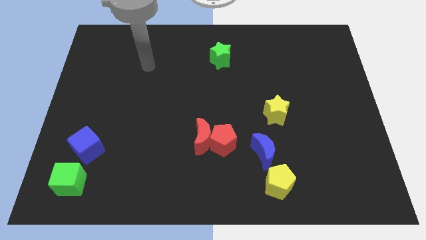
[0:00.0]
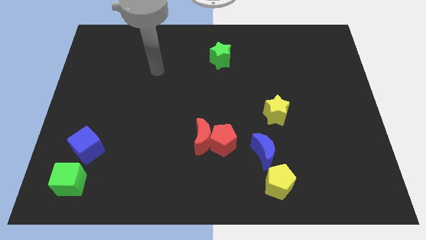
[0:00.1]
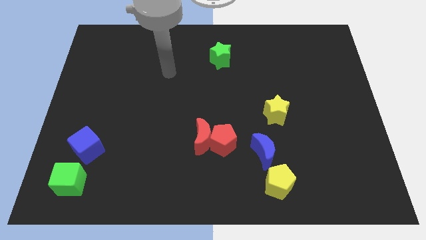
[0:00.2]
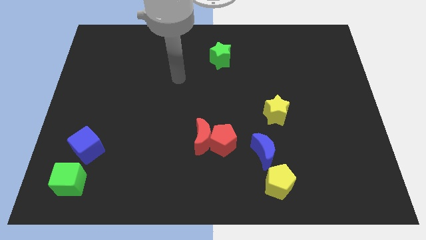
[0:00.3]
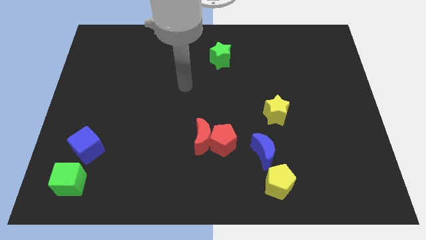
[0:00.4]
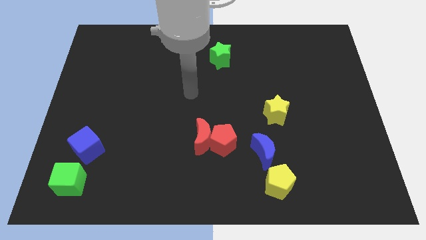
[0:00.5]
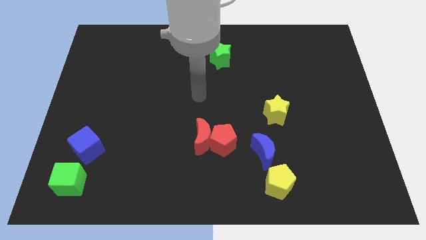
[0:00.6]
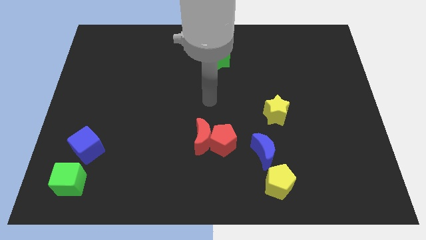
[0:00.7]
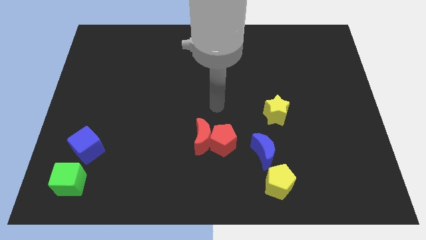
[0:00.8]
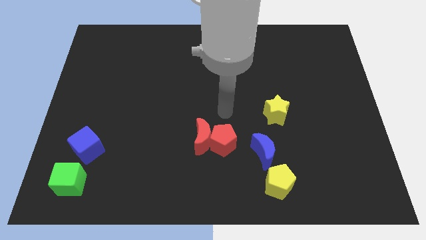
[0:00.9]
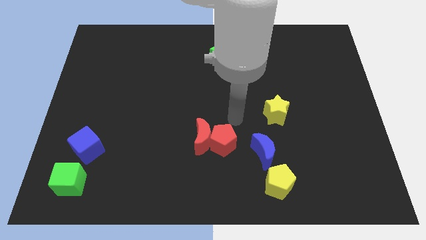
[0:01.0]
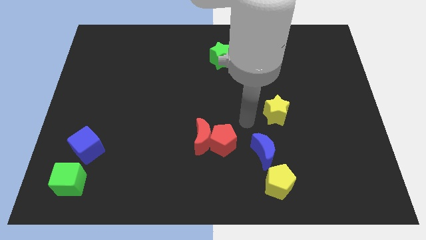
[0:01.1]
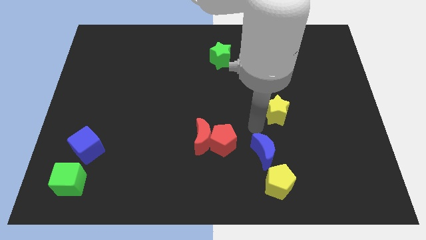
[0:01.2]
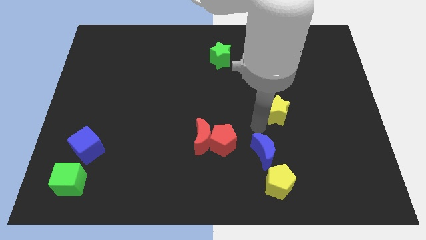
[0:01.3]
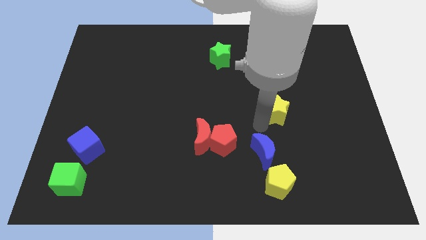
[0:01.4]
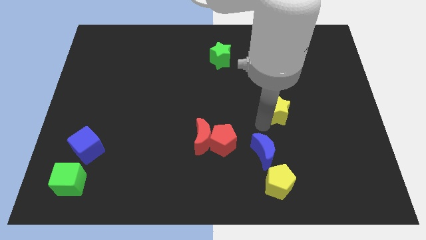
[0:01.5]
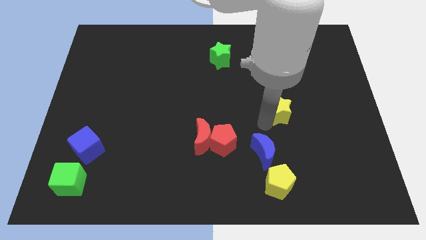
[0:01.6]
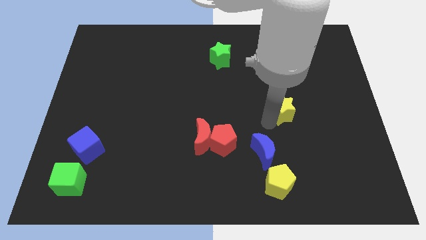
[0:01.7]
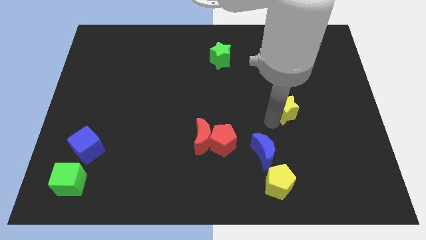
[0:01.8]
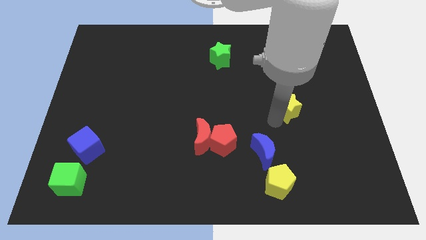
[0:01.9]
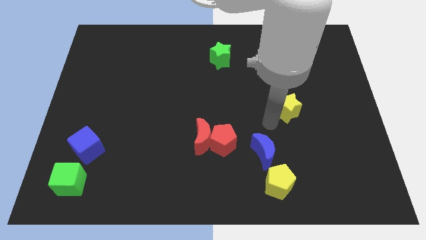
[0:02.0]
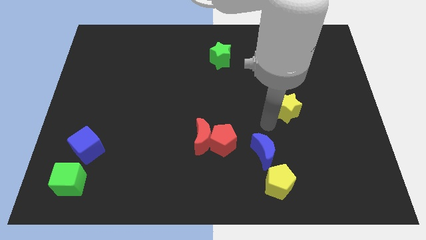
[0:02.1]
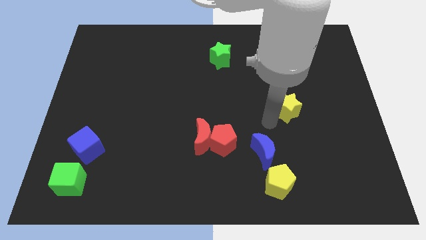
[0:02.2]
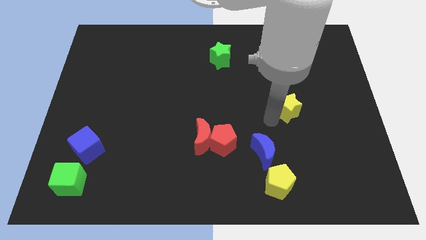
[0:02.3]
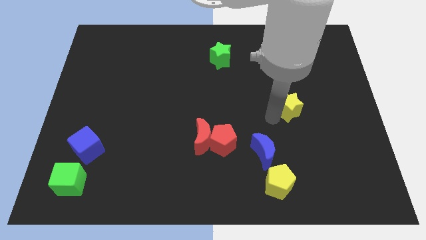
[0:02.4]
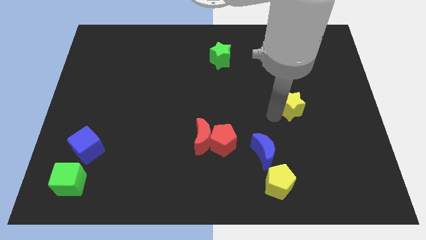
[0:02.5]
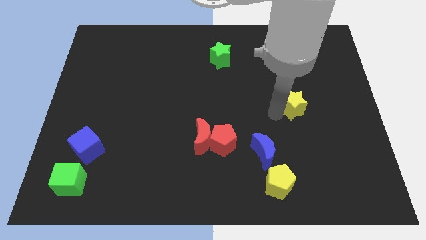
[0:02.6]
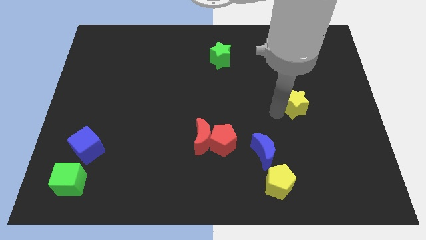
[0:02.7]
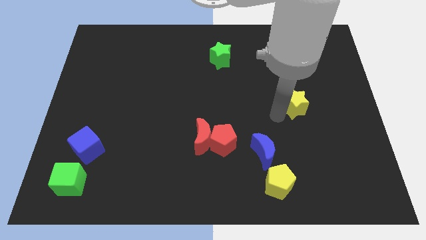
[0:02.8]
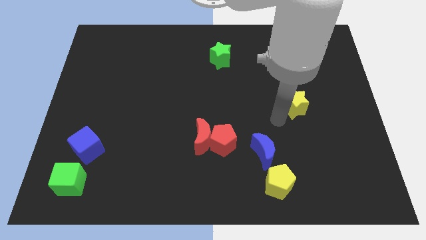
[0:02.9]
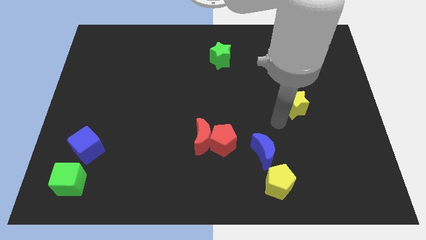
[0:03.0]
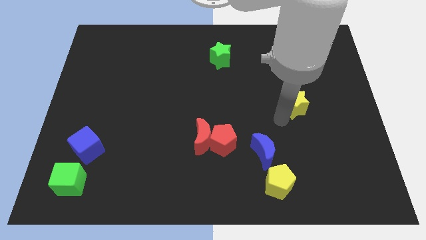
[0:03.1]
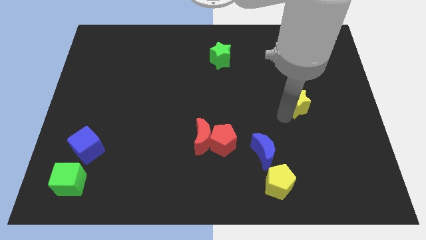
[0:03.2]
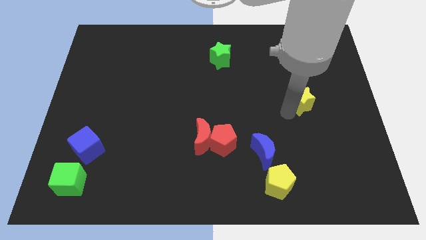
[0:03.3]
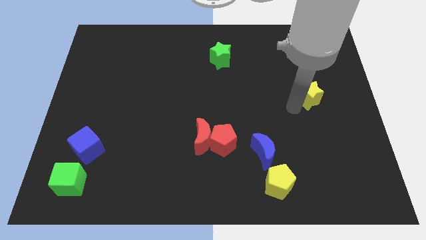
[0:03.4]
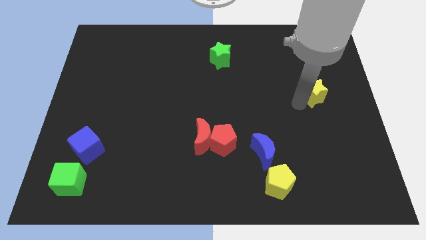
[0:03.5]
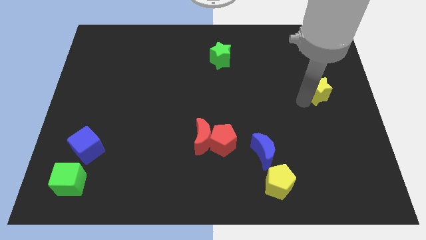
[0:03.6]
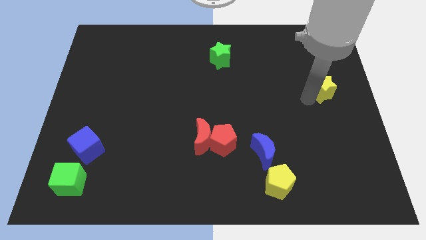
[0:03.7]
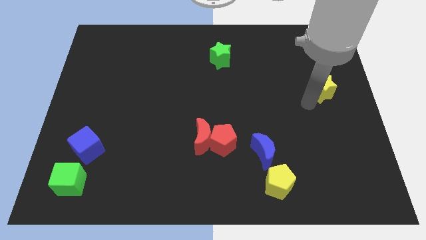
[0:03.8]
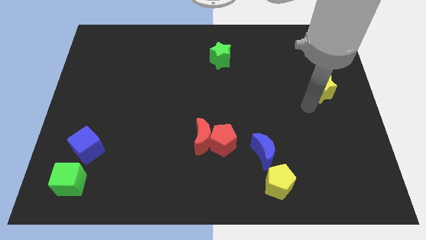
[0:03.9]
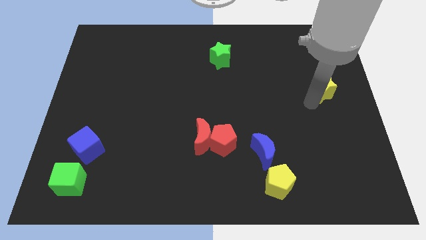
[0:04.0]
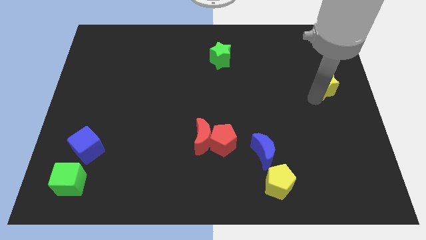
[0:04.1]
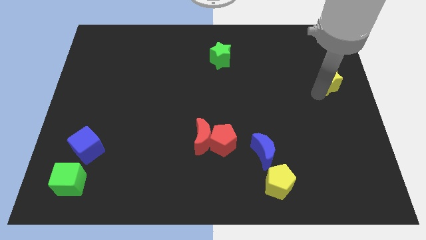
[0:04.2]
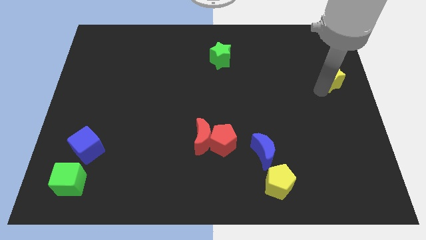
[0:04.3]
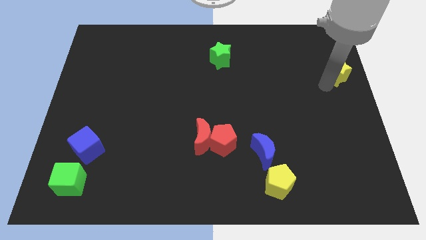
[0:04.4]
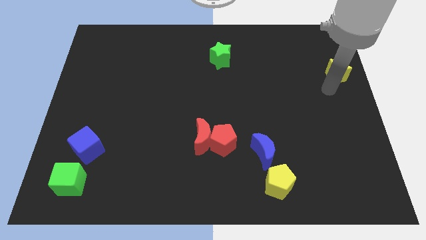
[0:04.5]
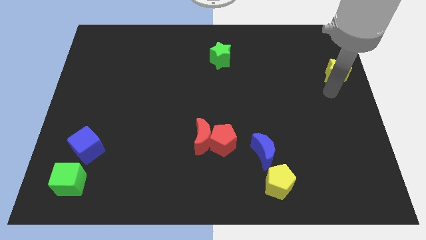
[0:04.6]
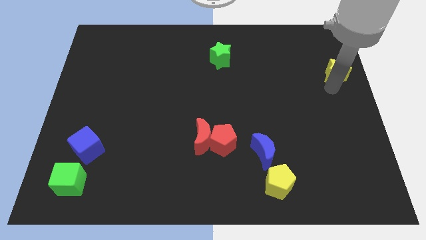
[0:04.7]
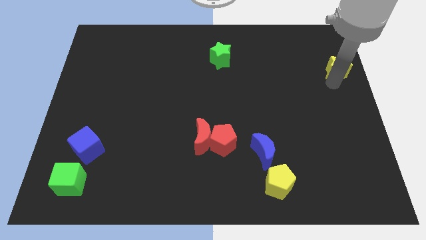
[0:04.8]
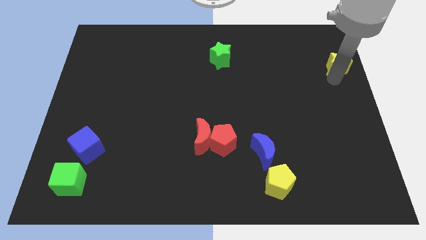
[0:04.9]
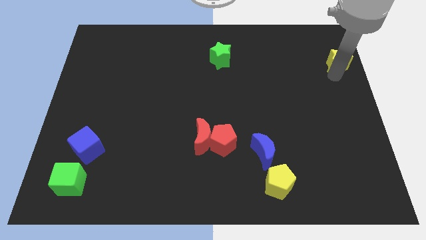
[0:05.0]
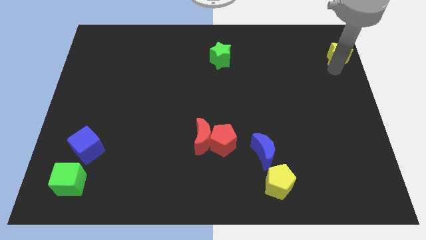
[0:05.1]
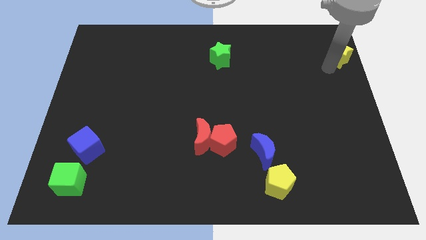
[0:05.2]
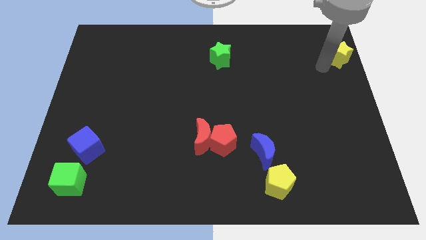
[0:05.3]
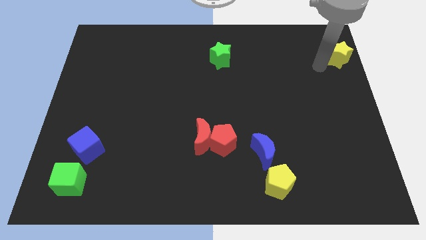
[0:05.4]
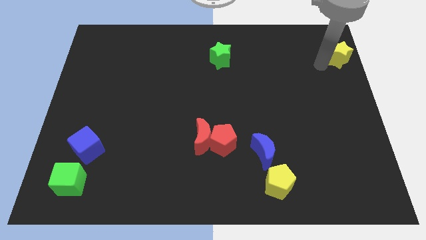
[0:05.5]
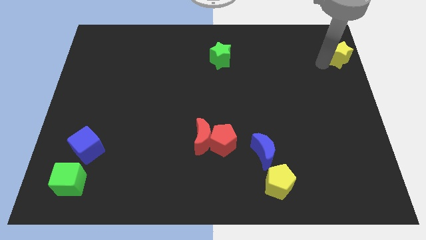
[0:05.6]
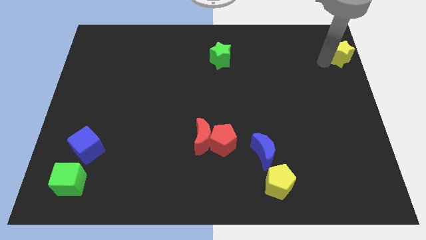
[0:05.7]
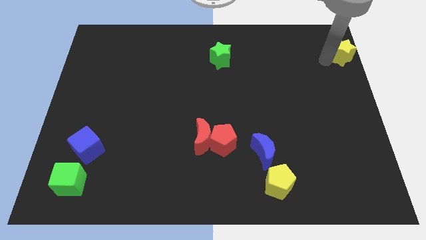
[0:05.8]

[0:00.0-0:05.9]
put the yellow star to the top right of the board
